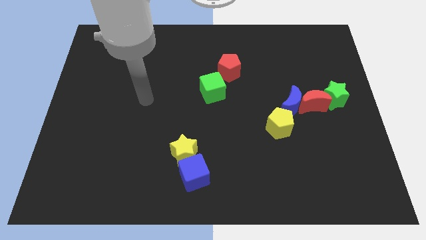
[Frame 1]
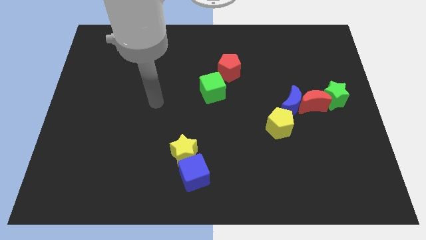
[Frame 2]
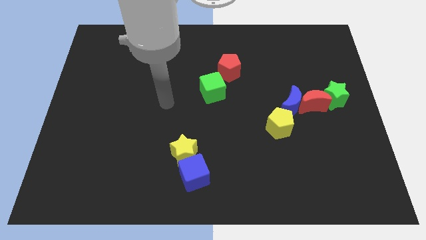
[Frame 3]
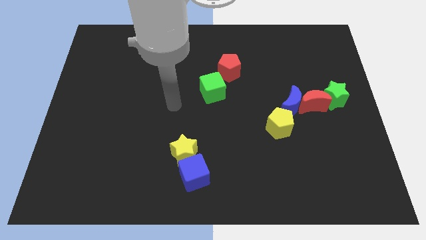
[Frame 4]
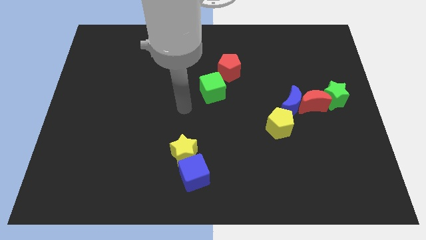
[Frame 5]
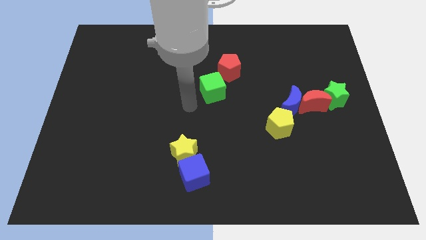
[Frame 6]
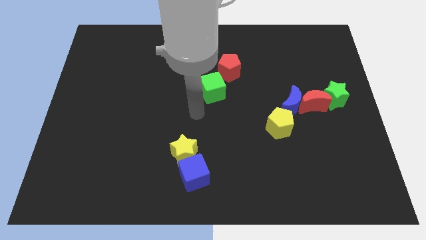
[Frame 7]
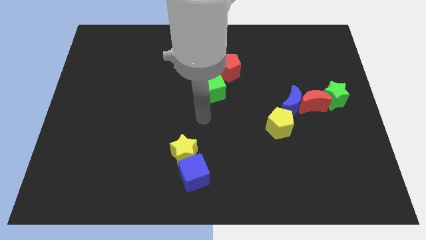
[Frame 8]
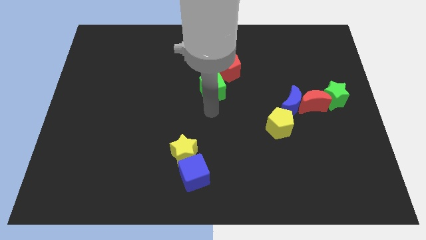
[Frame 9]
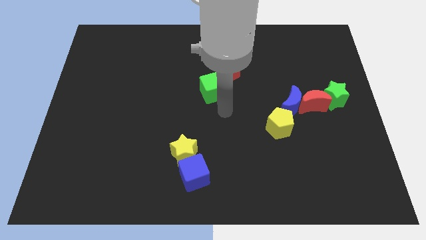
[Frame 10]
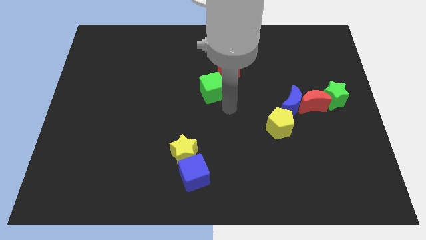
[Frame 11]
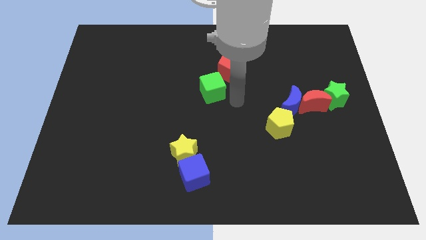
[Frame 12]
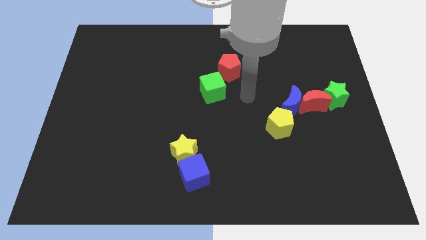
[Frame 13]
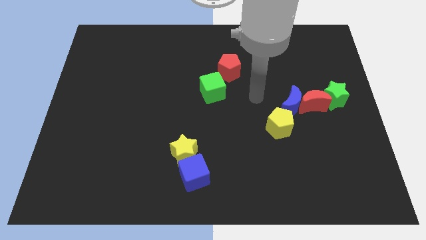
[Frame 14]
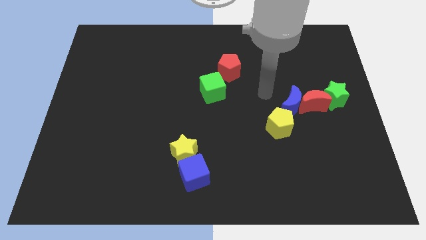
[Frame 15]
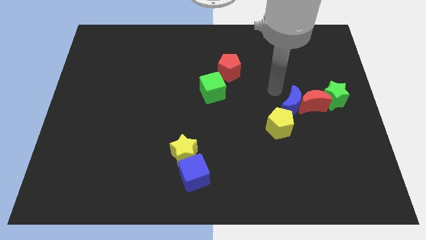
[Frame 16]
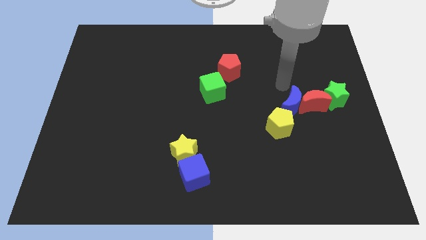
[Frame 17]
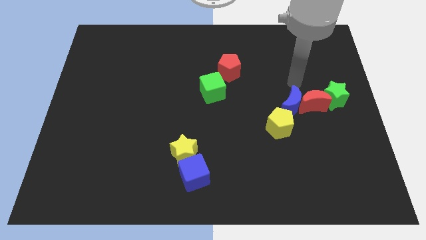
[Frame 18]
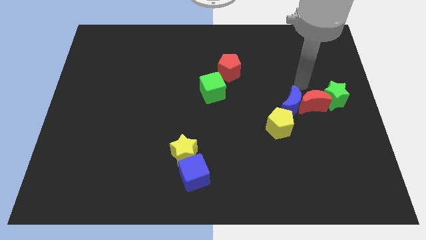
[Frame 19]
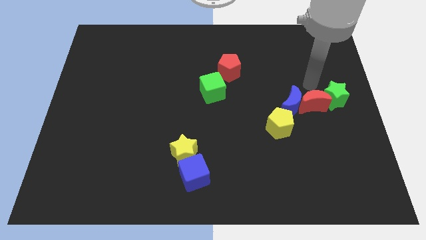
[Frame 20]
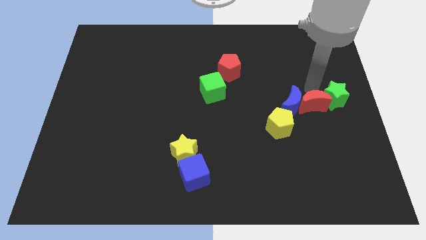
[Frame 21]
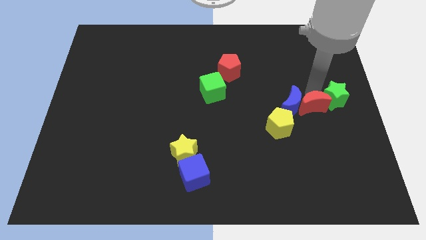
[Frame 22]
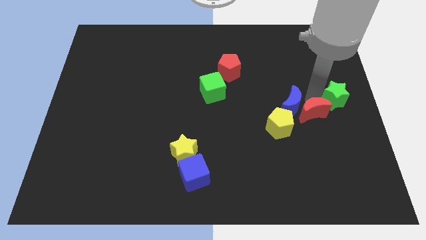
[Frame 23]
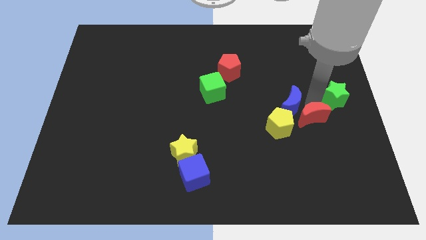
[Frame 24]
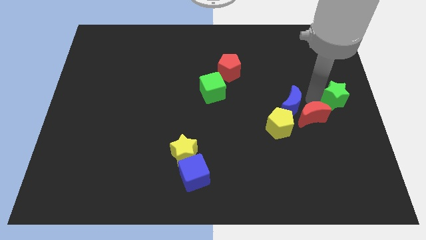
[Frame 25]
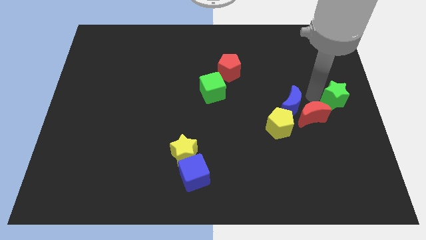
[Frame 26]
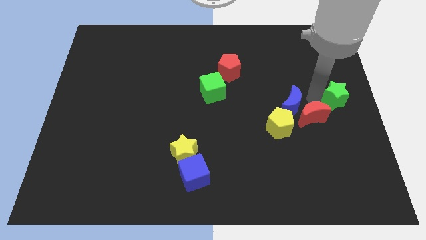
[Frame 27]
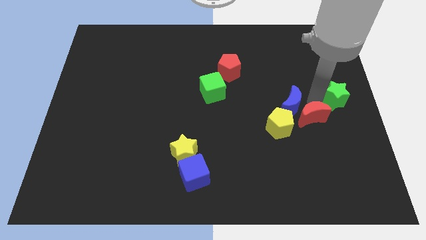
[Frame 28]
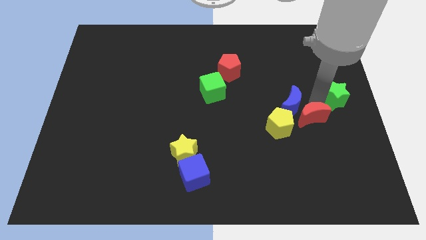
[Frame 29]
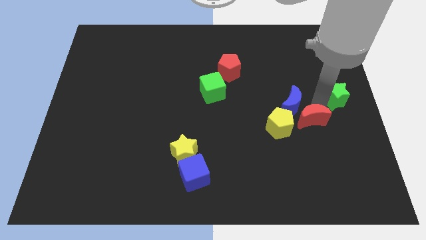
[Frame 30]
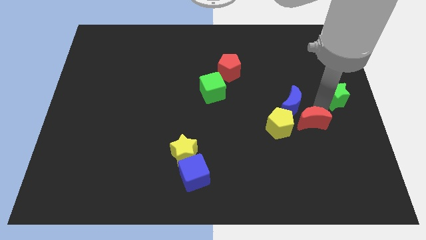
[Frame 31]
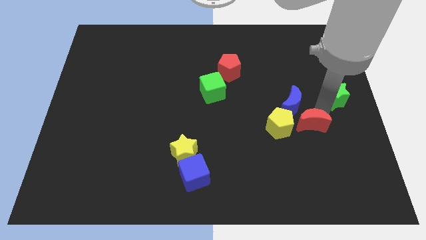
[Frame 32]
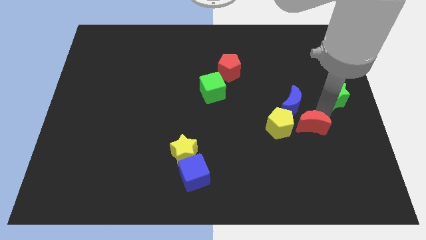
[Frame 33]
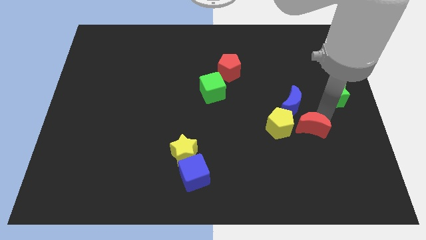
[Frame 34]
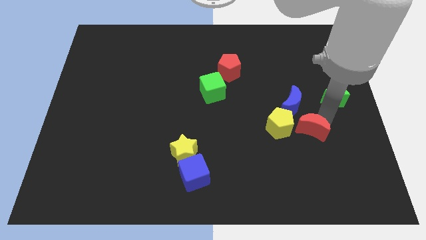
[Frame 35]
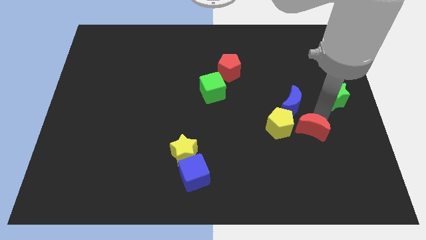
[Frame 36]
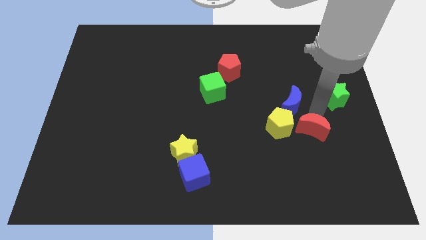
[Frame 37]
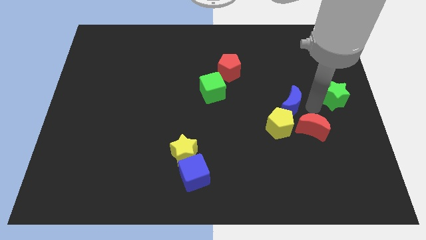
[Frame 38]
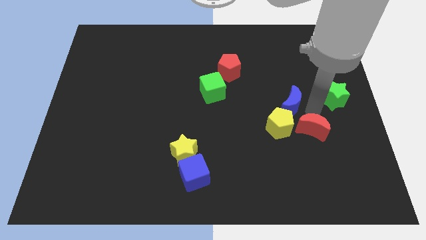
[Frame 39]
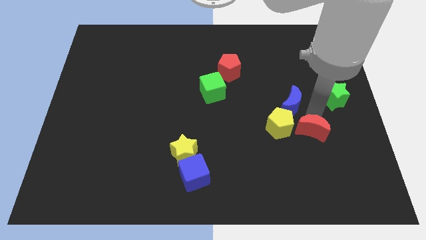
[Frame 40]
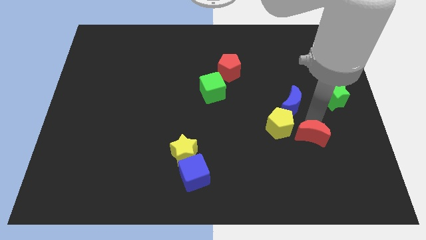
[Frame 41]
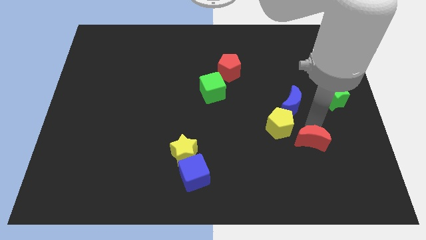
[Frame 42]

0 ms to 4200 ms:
separate the red moon from the blue moon and green star

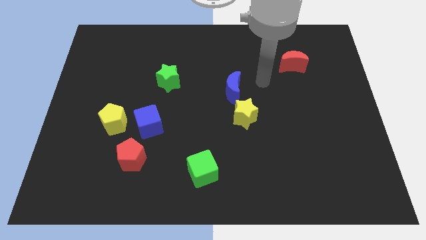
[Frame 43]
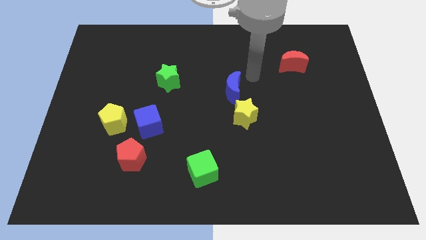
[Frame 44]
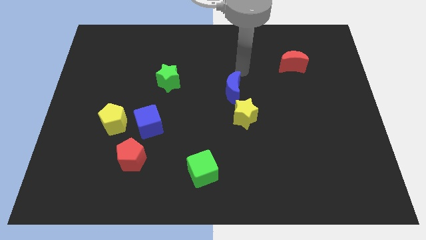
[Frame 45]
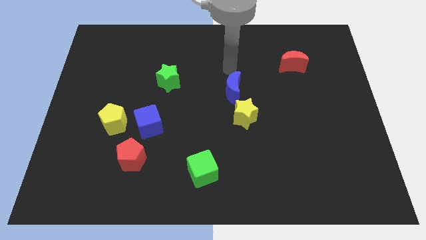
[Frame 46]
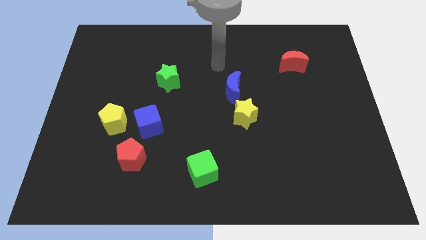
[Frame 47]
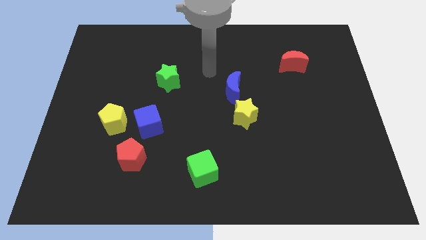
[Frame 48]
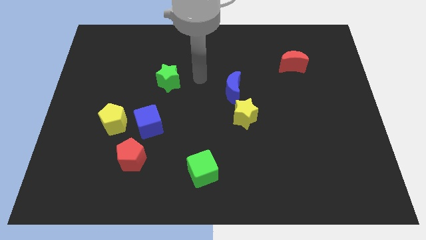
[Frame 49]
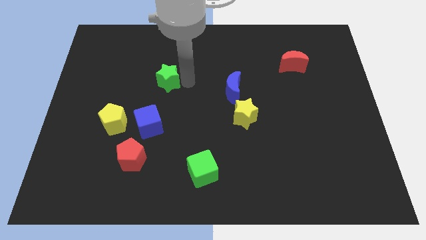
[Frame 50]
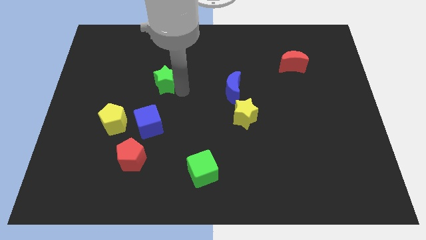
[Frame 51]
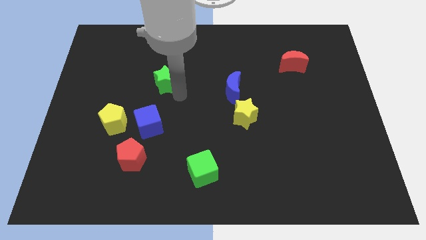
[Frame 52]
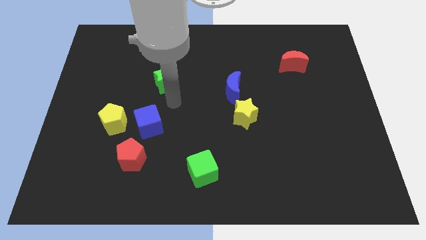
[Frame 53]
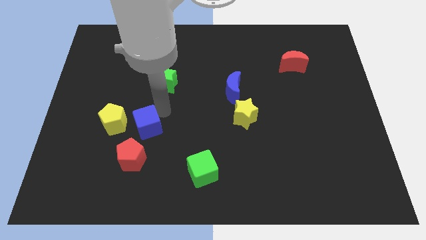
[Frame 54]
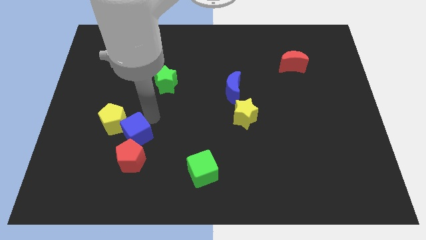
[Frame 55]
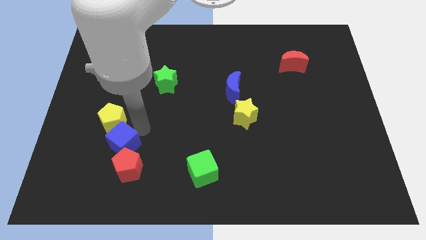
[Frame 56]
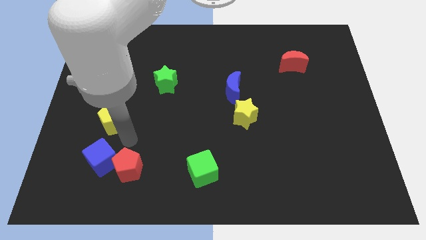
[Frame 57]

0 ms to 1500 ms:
separate the yellow pentagon from the blue cube

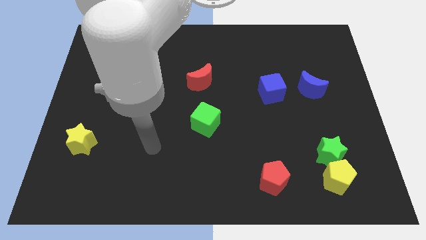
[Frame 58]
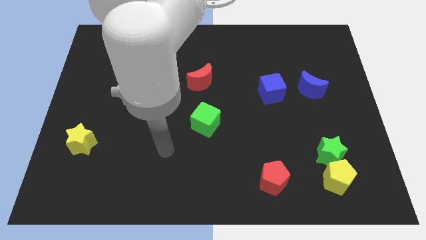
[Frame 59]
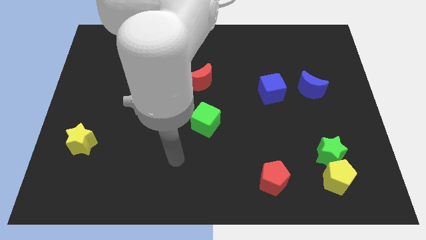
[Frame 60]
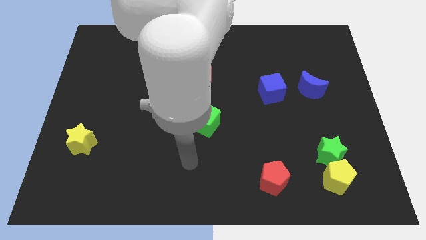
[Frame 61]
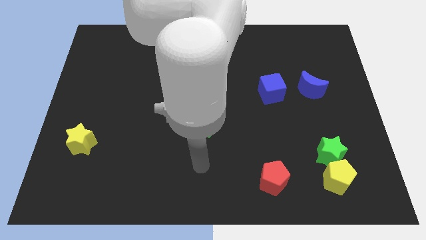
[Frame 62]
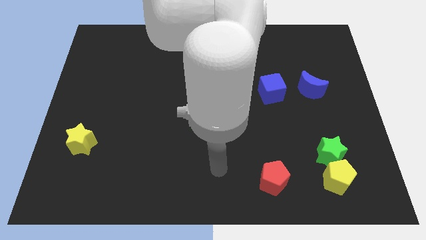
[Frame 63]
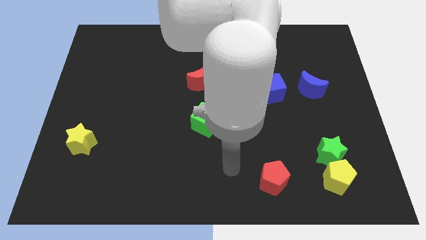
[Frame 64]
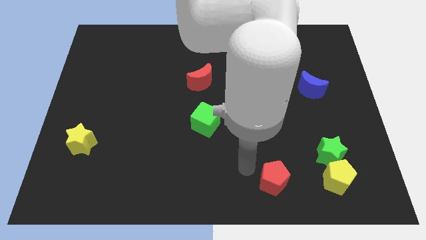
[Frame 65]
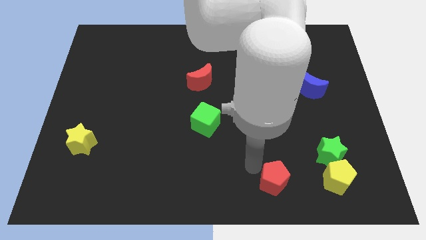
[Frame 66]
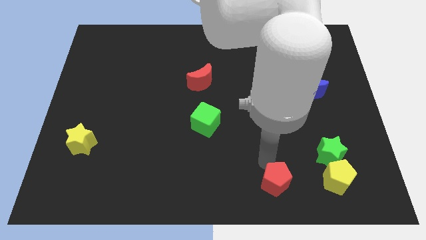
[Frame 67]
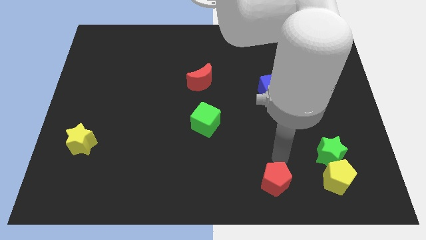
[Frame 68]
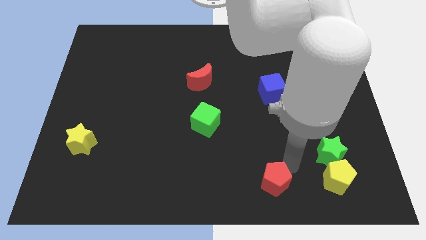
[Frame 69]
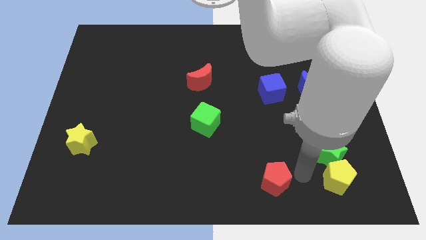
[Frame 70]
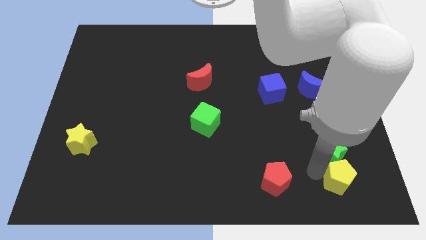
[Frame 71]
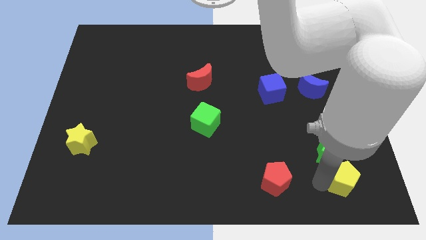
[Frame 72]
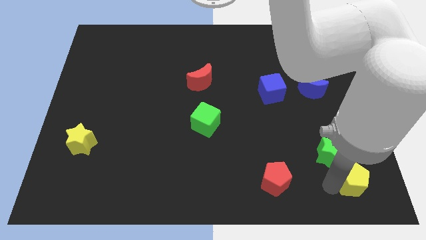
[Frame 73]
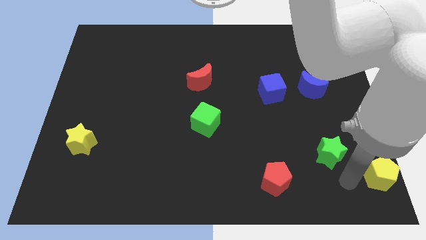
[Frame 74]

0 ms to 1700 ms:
separate the green star from the yellow pentagon

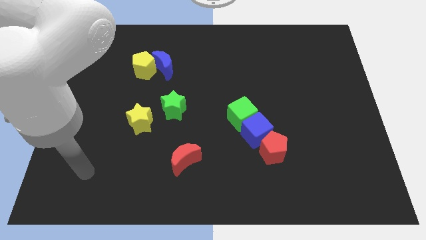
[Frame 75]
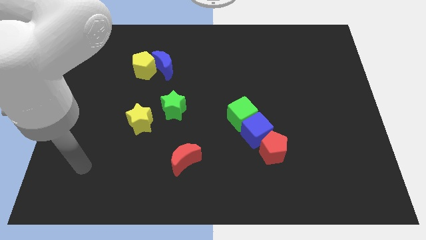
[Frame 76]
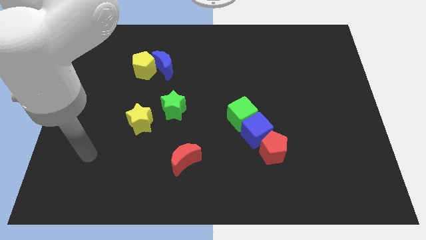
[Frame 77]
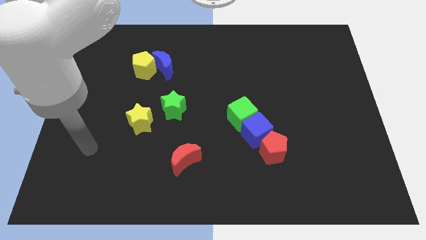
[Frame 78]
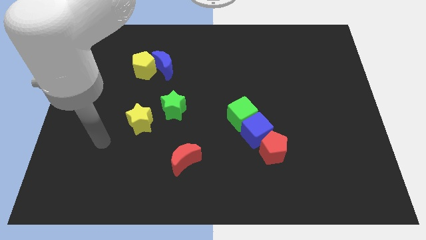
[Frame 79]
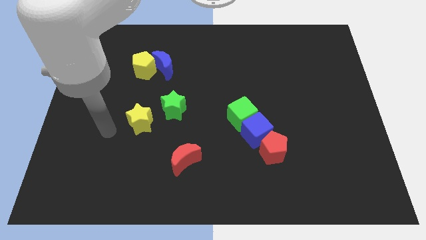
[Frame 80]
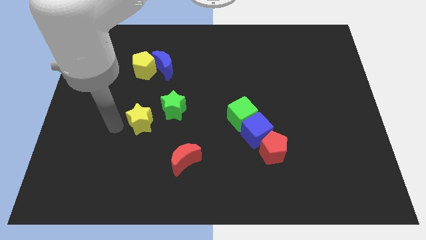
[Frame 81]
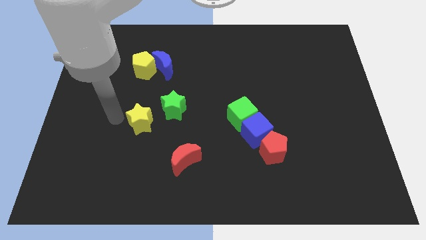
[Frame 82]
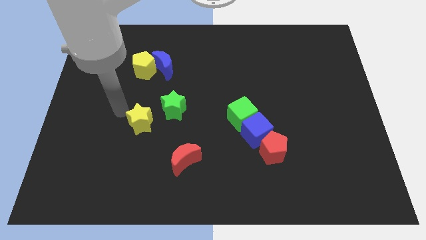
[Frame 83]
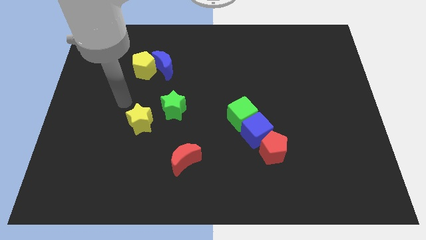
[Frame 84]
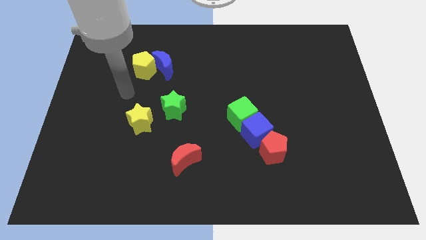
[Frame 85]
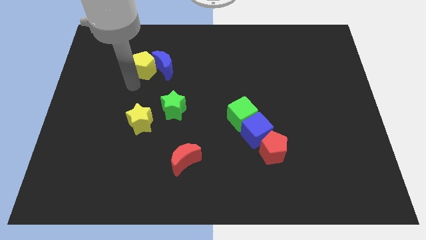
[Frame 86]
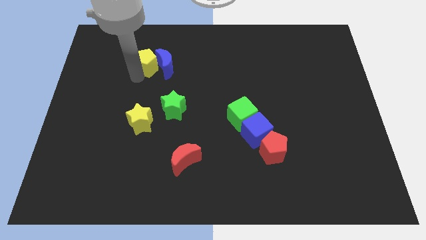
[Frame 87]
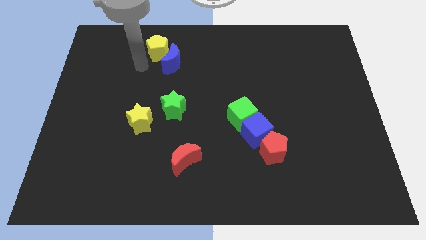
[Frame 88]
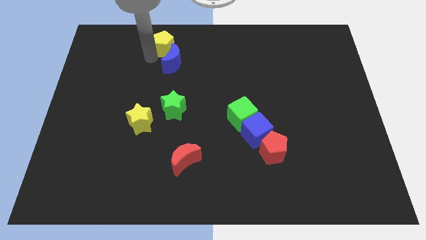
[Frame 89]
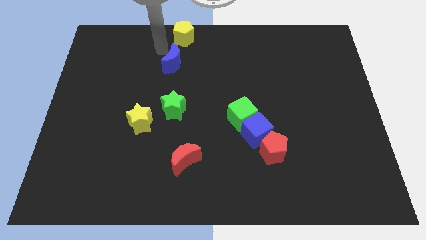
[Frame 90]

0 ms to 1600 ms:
separate the blue moon from the yellow pentagon

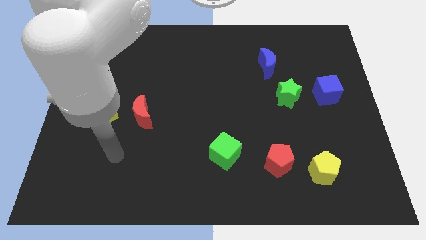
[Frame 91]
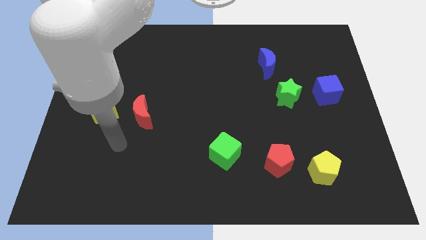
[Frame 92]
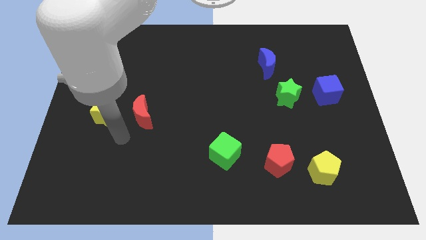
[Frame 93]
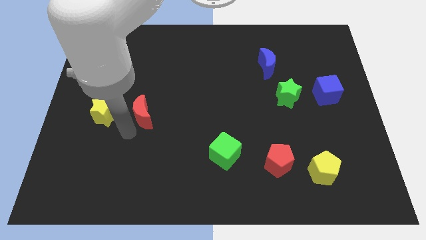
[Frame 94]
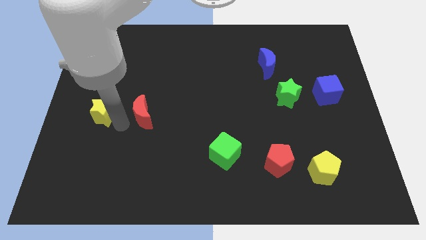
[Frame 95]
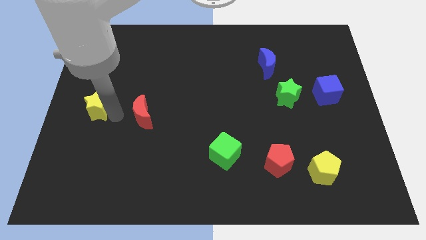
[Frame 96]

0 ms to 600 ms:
pull the red moon apart from the yellow star
